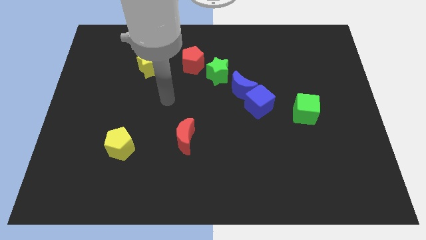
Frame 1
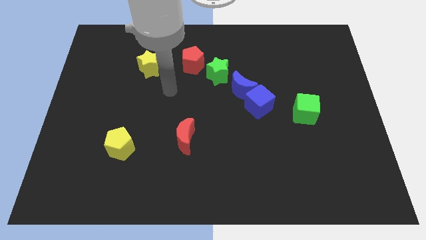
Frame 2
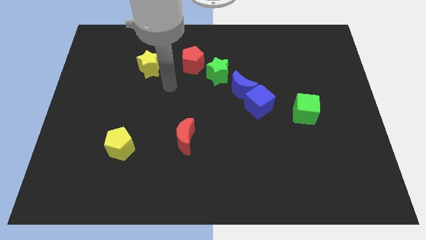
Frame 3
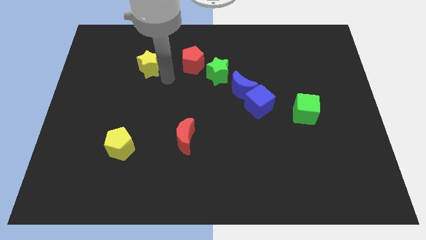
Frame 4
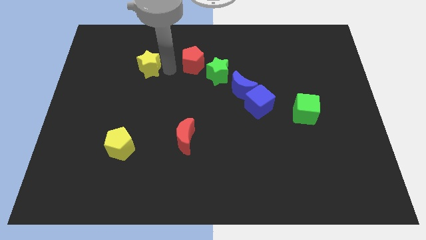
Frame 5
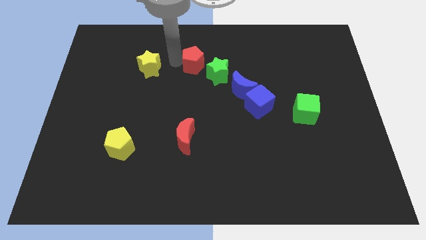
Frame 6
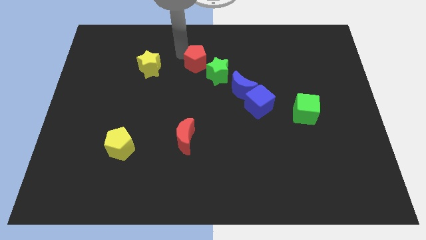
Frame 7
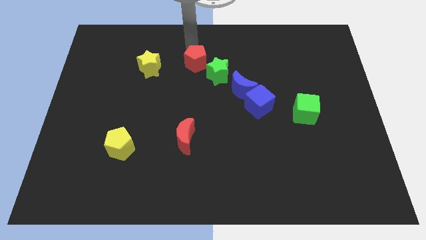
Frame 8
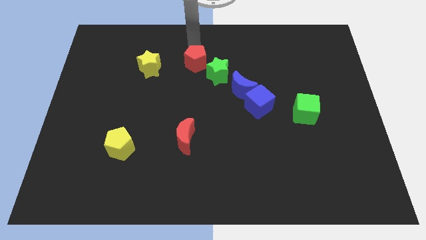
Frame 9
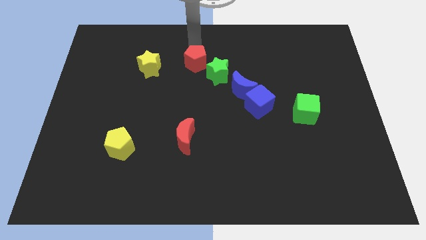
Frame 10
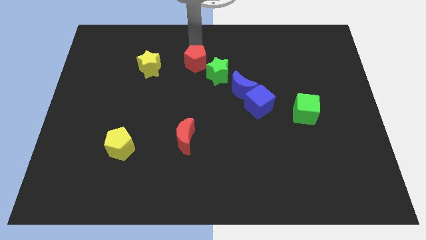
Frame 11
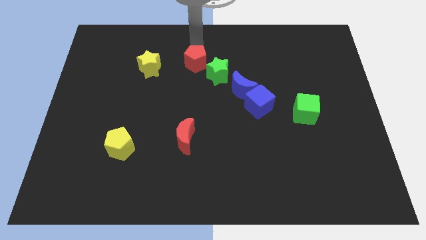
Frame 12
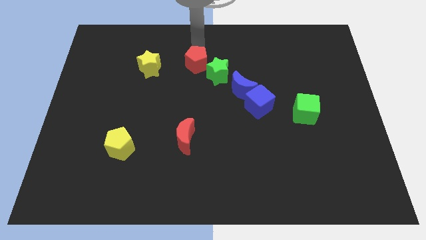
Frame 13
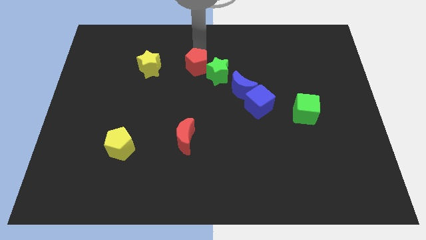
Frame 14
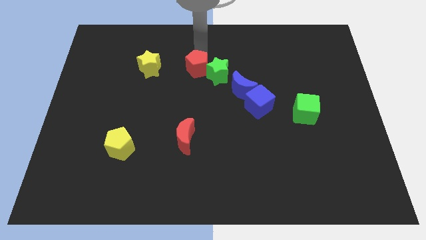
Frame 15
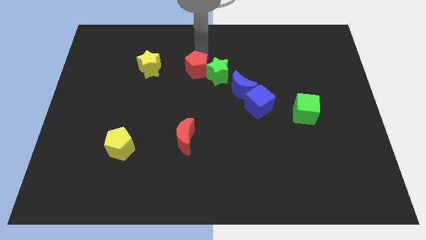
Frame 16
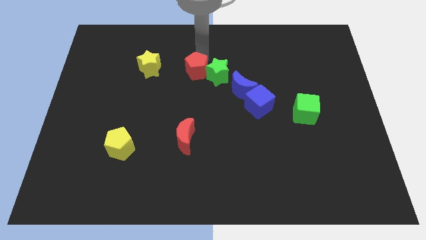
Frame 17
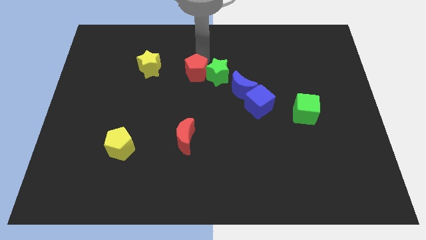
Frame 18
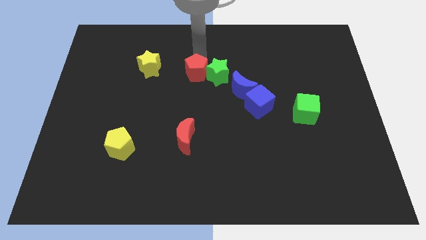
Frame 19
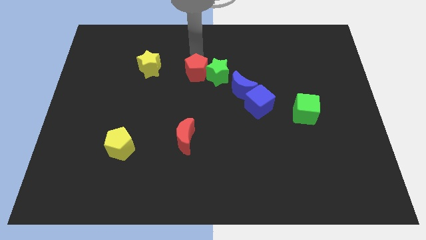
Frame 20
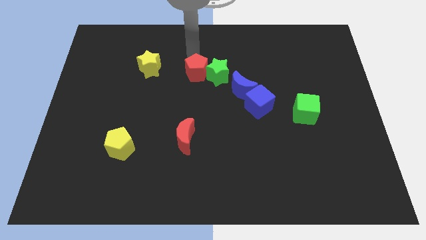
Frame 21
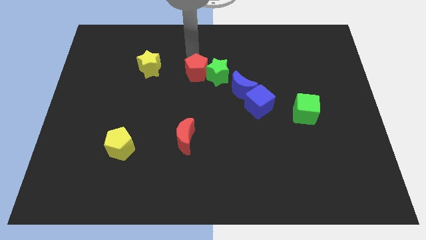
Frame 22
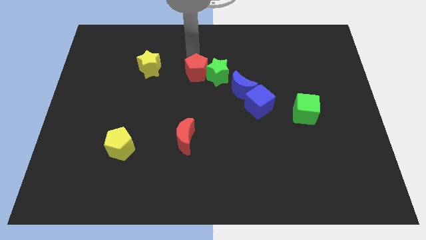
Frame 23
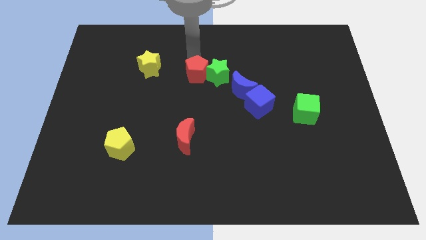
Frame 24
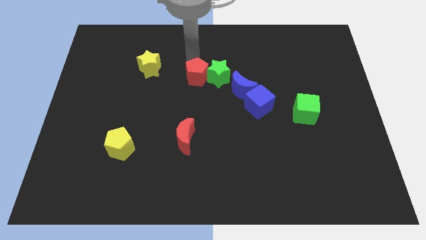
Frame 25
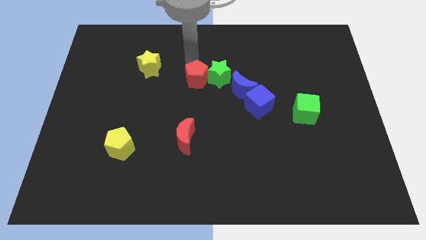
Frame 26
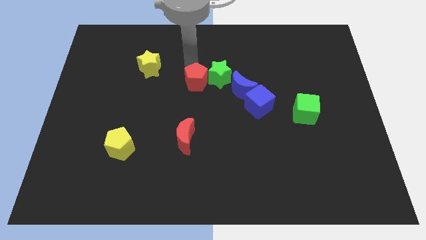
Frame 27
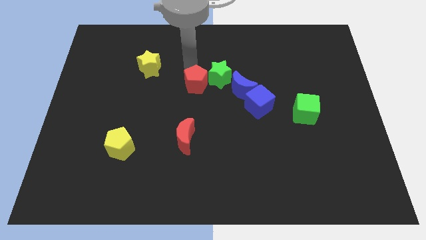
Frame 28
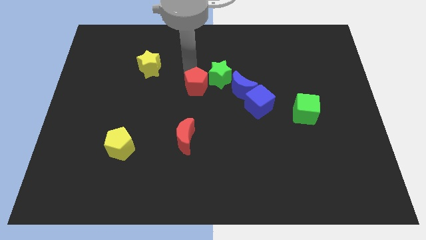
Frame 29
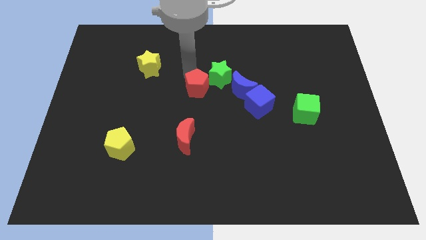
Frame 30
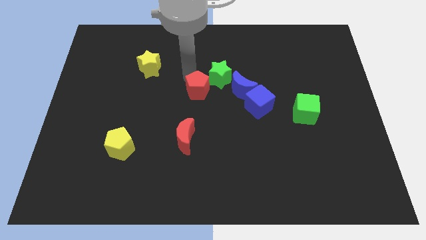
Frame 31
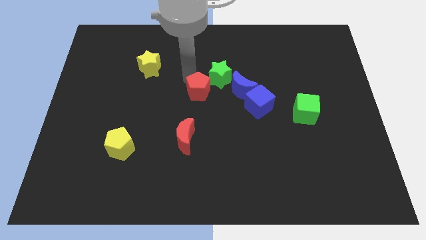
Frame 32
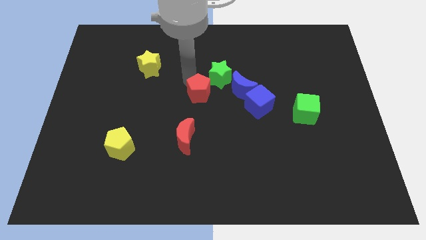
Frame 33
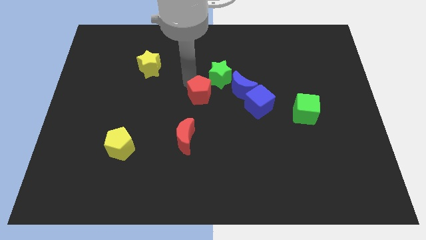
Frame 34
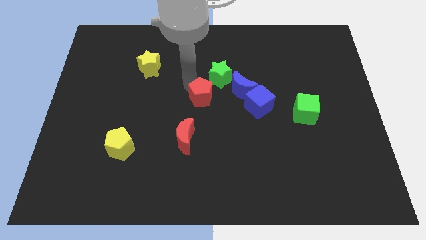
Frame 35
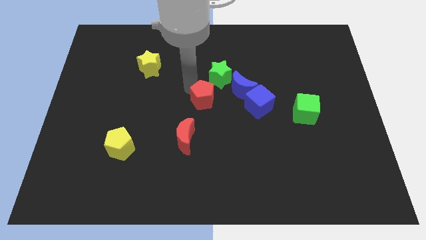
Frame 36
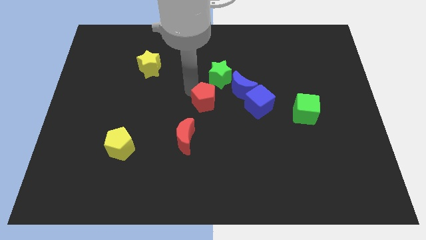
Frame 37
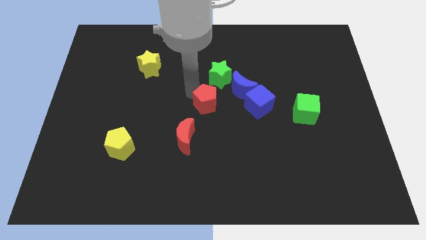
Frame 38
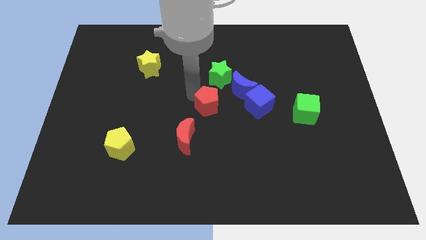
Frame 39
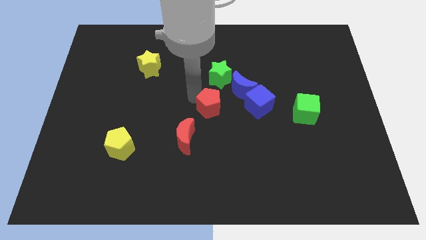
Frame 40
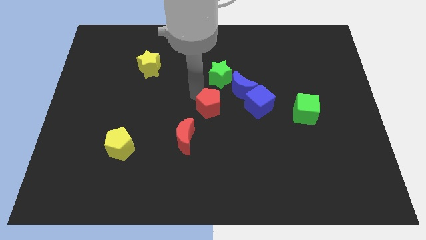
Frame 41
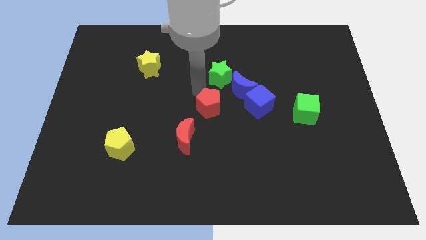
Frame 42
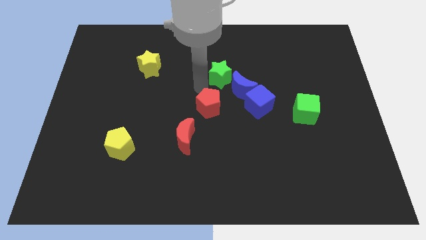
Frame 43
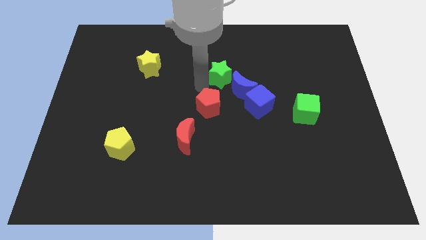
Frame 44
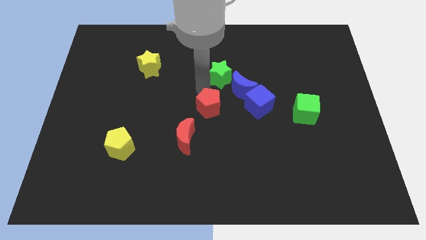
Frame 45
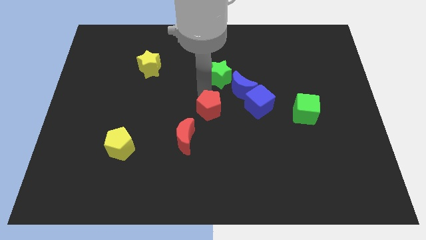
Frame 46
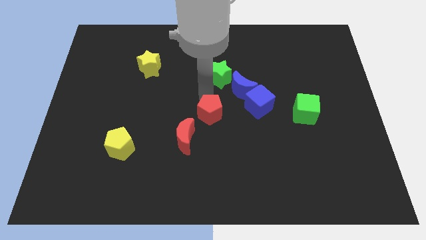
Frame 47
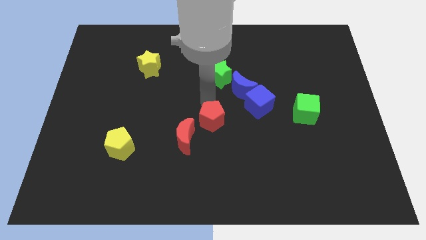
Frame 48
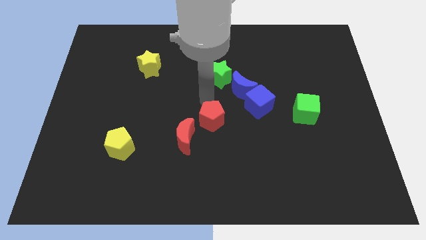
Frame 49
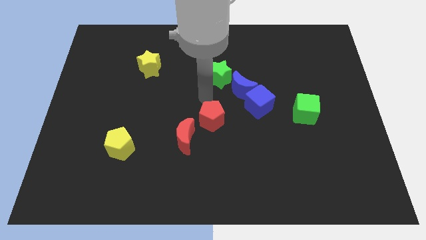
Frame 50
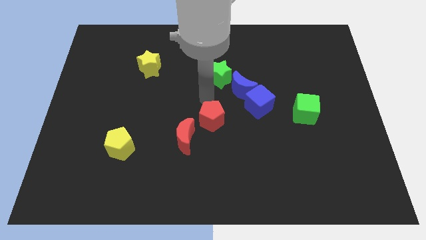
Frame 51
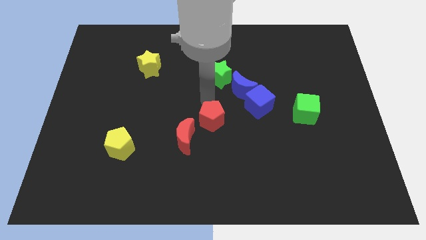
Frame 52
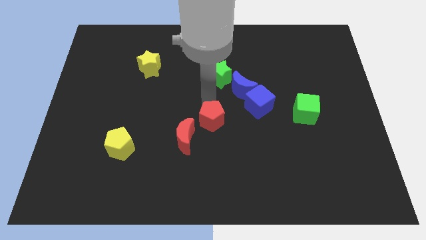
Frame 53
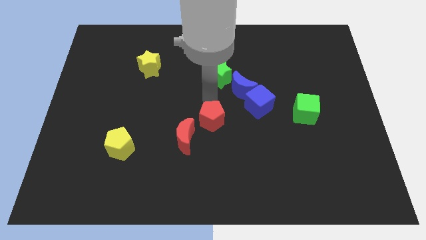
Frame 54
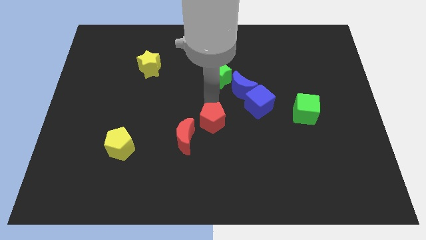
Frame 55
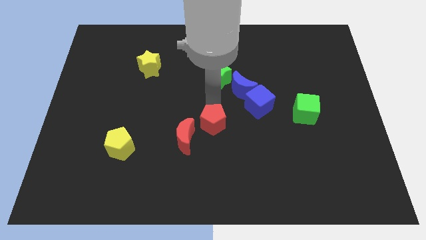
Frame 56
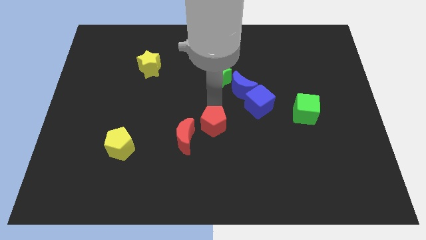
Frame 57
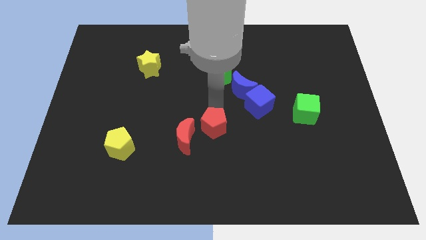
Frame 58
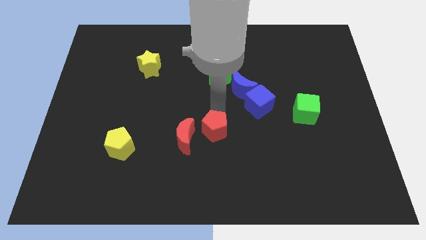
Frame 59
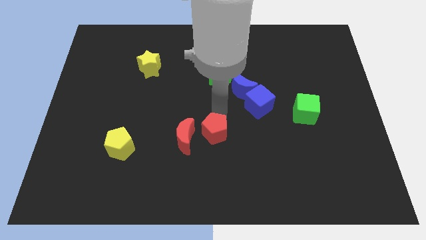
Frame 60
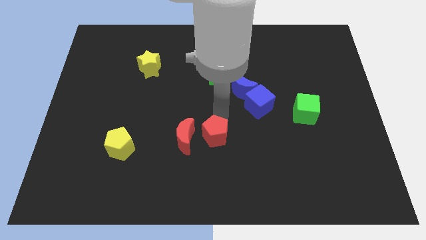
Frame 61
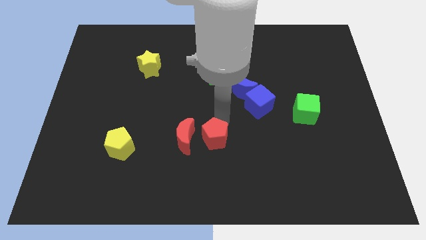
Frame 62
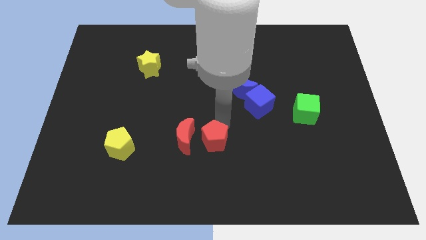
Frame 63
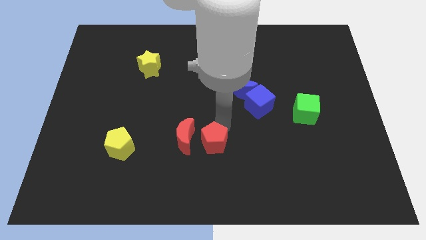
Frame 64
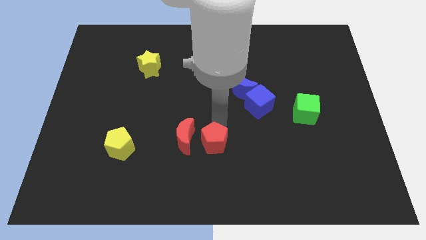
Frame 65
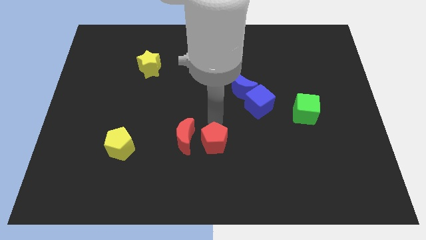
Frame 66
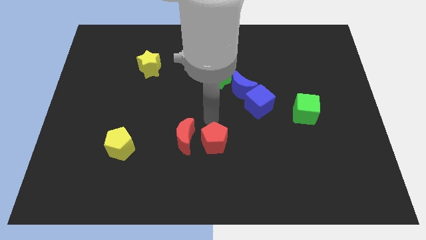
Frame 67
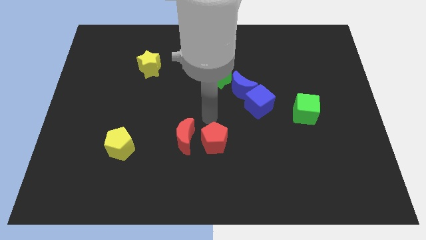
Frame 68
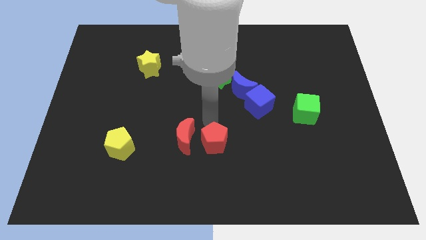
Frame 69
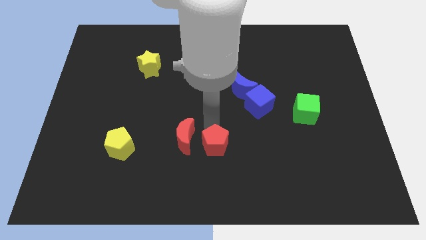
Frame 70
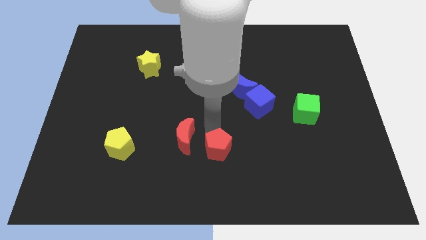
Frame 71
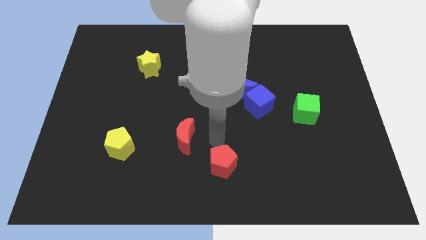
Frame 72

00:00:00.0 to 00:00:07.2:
push the red pentagon to the bottom side

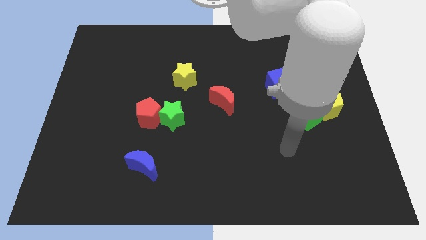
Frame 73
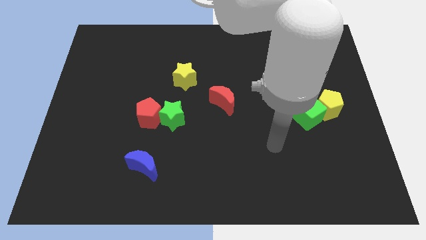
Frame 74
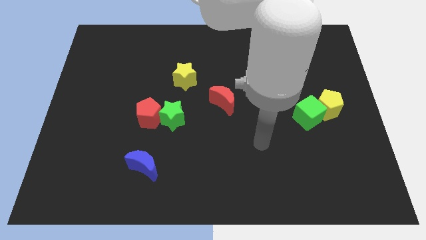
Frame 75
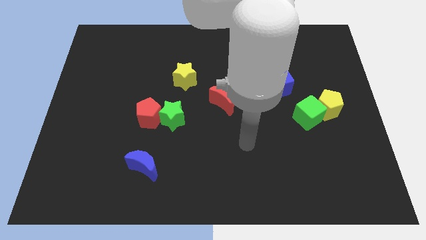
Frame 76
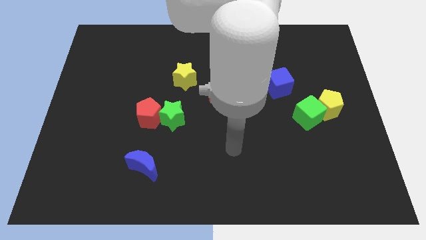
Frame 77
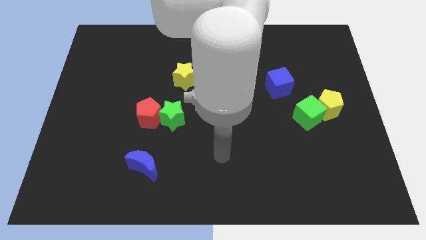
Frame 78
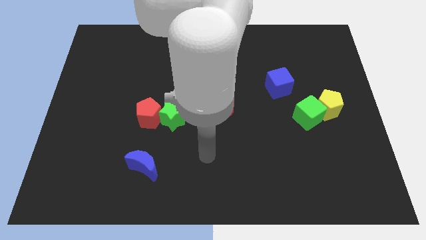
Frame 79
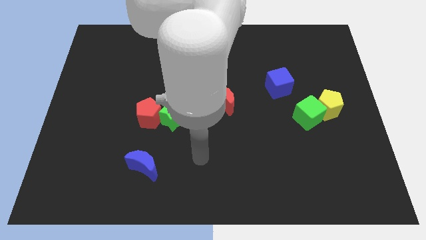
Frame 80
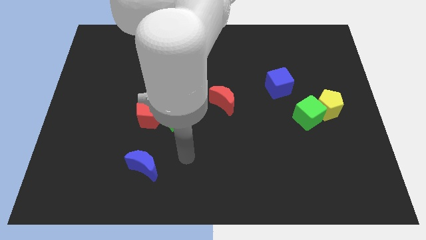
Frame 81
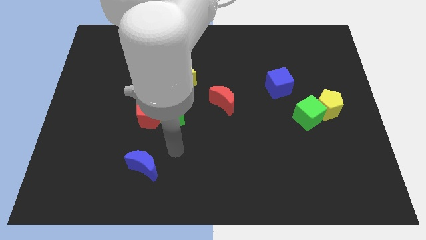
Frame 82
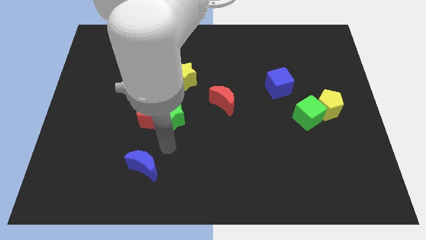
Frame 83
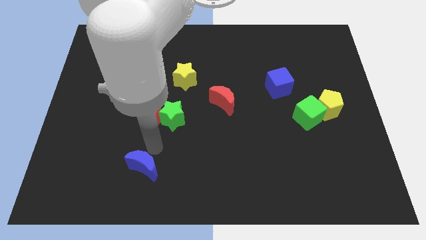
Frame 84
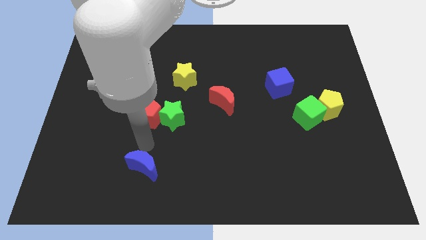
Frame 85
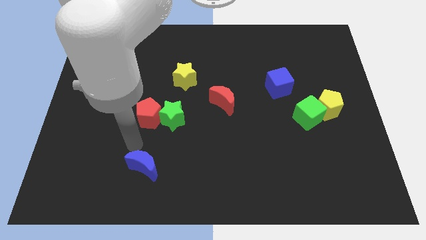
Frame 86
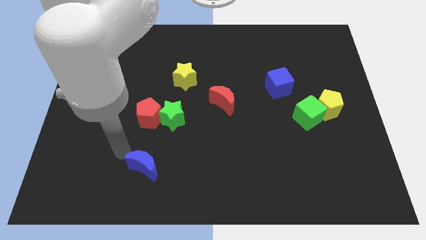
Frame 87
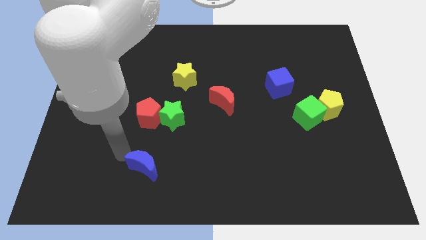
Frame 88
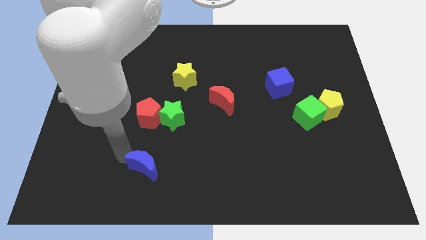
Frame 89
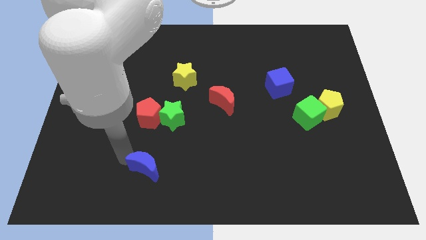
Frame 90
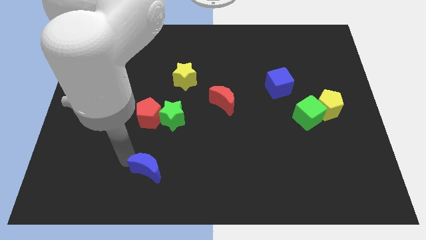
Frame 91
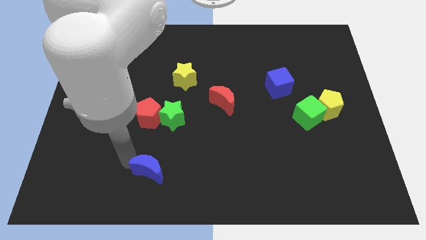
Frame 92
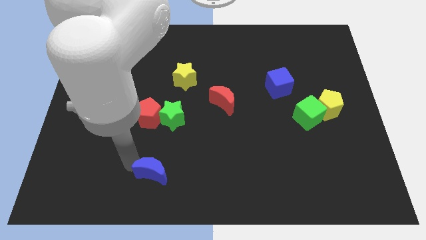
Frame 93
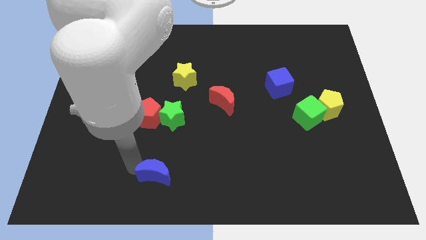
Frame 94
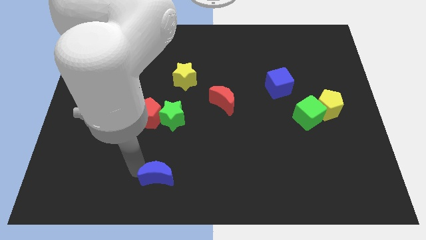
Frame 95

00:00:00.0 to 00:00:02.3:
move the blue moon to the bottom
